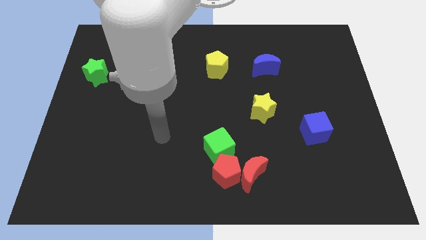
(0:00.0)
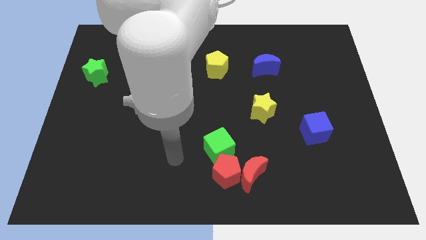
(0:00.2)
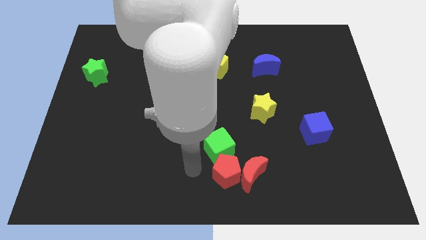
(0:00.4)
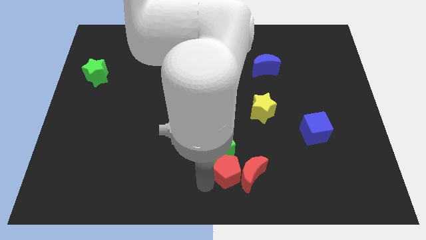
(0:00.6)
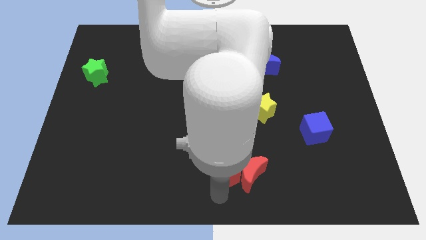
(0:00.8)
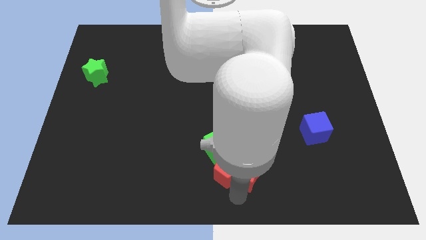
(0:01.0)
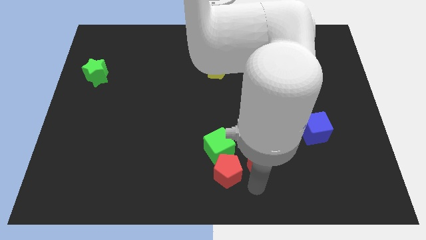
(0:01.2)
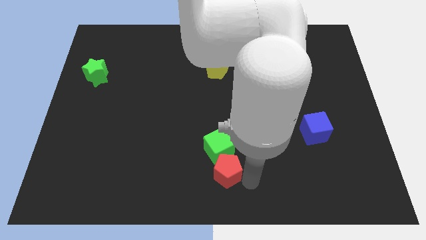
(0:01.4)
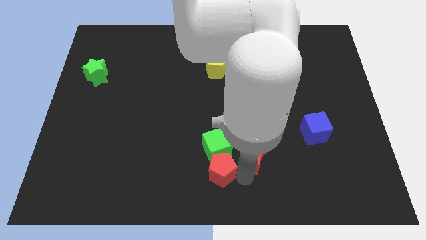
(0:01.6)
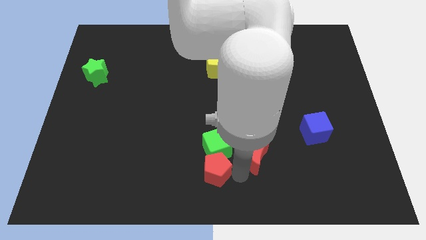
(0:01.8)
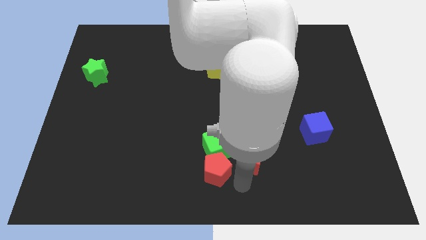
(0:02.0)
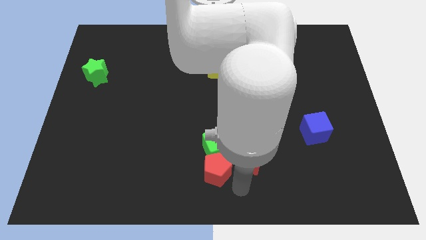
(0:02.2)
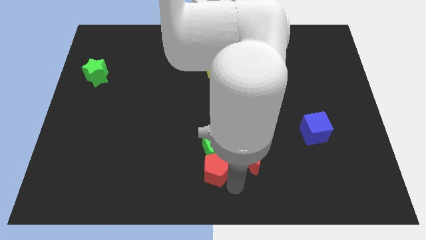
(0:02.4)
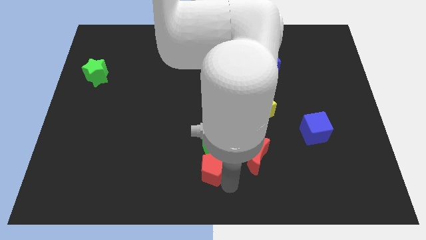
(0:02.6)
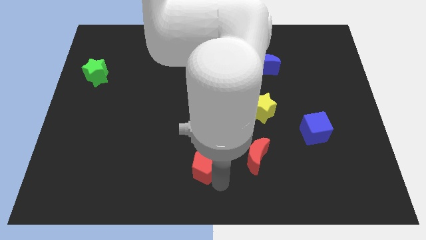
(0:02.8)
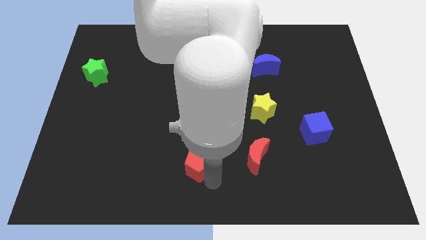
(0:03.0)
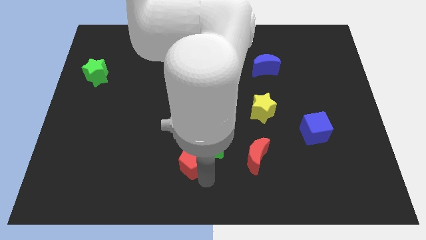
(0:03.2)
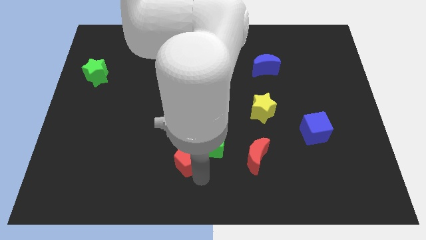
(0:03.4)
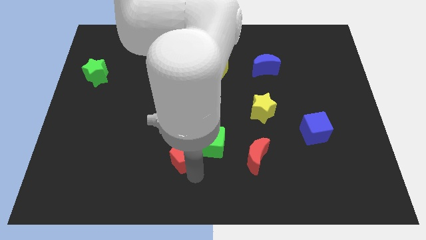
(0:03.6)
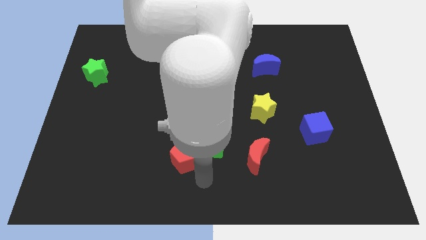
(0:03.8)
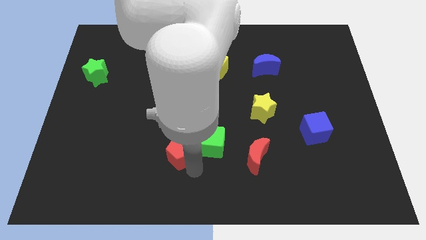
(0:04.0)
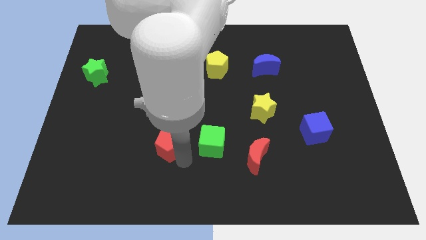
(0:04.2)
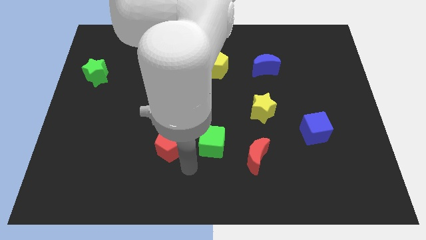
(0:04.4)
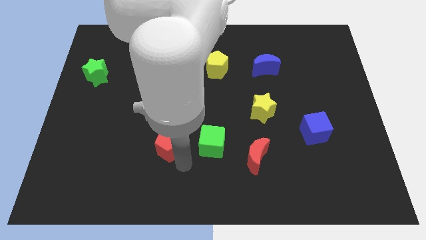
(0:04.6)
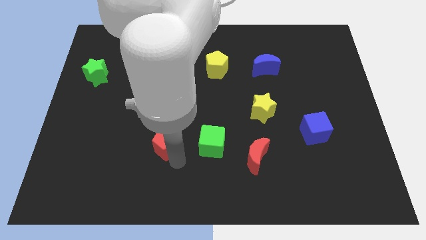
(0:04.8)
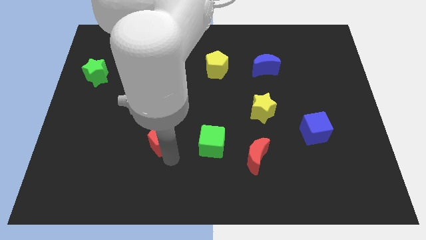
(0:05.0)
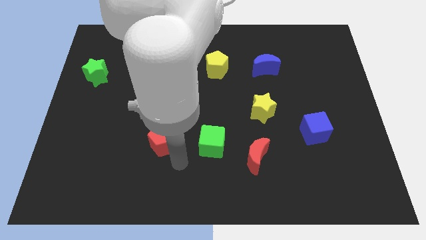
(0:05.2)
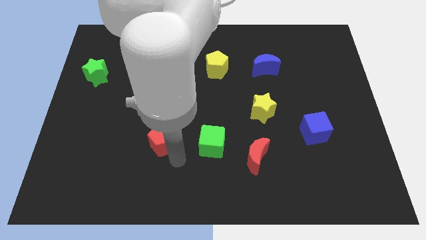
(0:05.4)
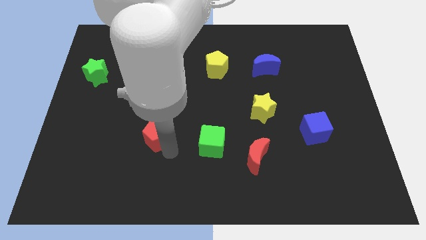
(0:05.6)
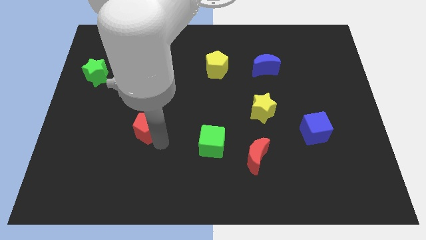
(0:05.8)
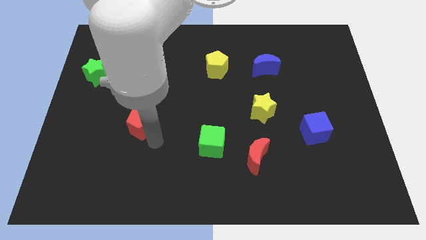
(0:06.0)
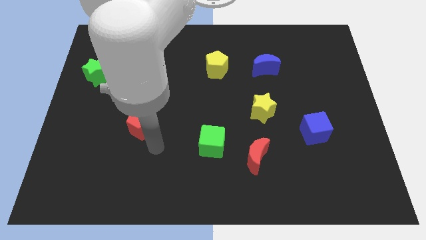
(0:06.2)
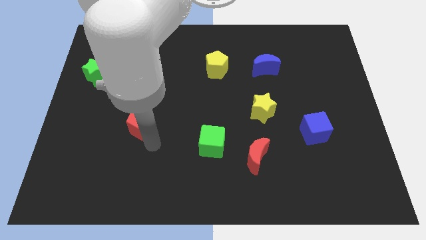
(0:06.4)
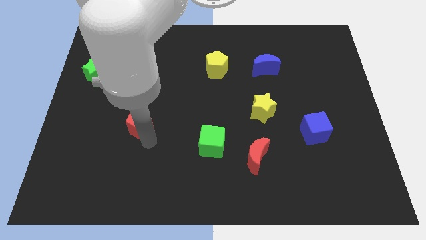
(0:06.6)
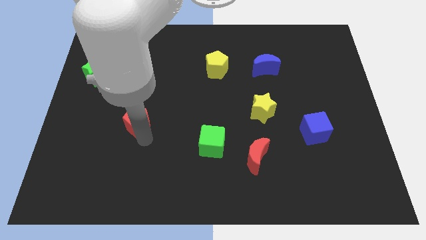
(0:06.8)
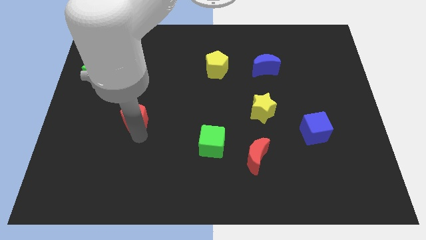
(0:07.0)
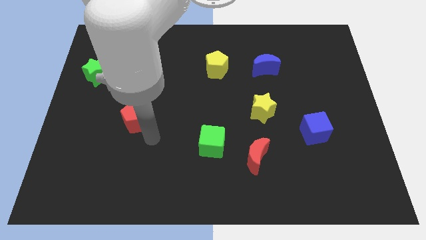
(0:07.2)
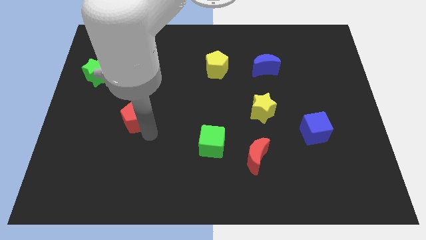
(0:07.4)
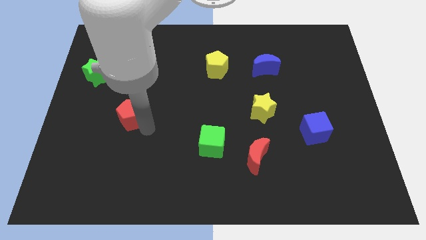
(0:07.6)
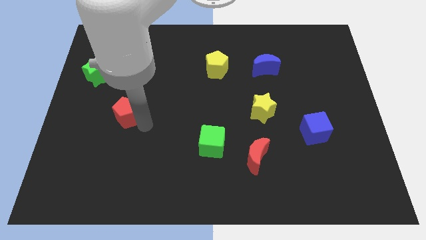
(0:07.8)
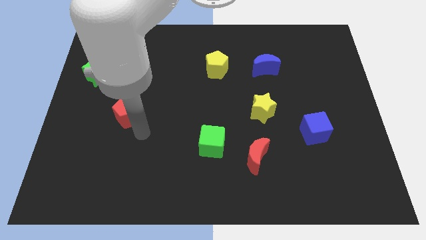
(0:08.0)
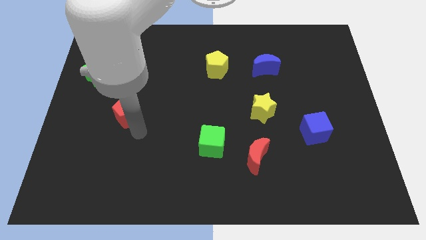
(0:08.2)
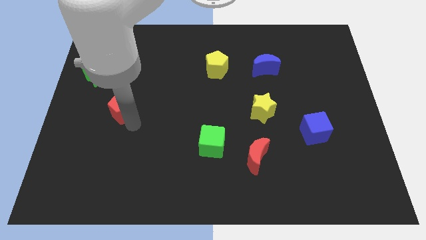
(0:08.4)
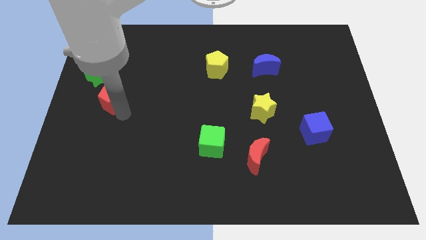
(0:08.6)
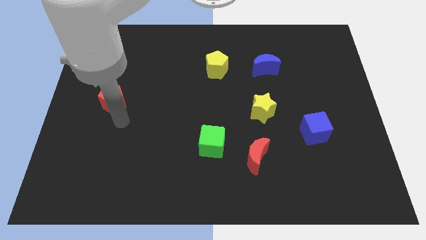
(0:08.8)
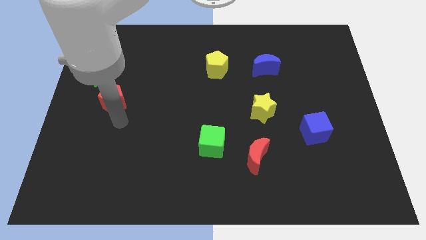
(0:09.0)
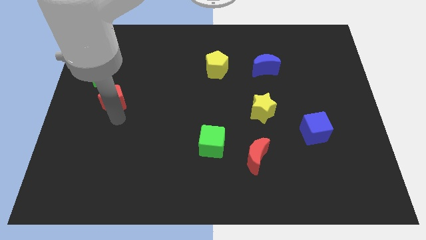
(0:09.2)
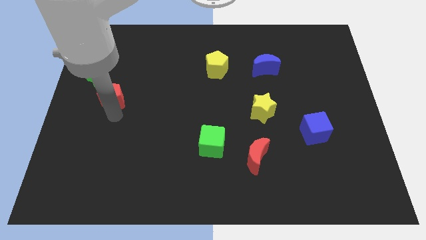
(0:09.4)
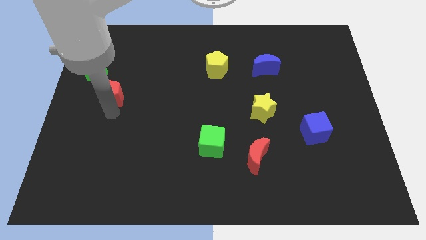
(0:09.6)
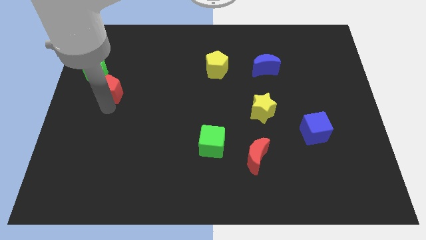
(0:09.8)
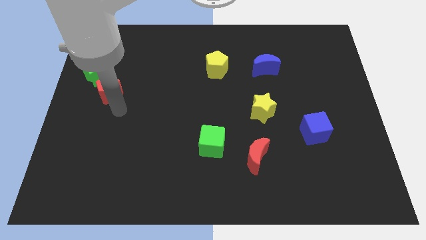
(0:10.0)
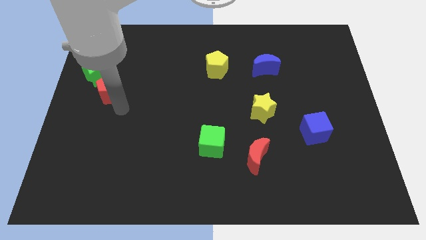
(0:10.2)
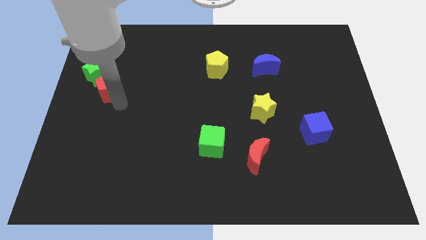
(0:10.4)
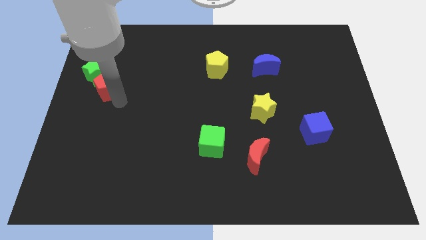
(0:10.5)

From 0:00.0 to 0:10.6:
push the red pentagon next to the green star

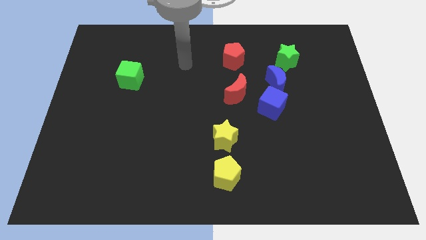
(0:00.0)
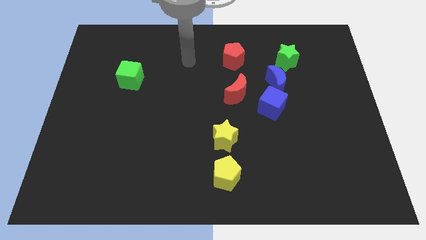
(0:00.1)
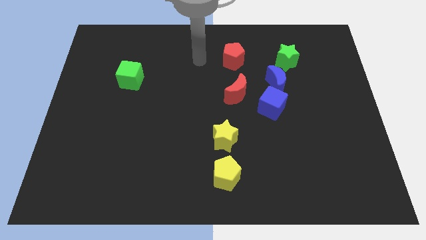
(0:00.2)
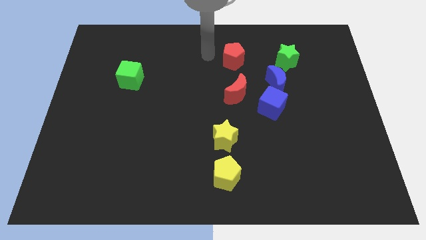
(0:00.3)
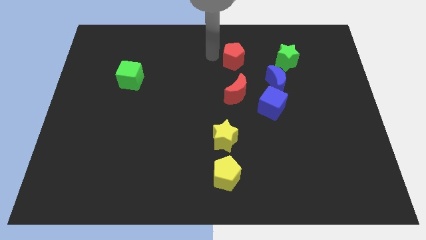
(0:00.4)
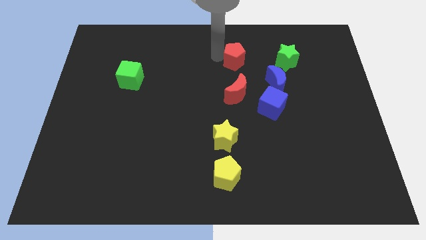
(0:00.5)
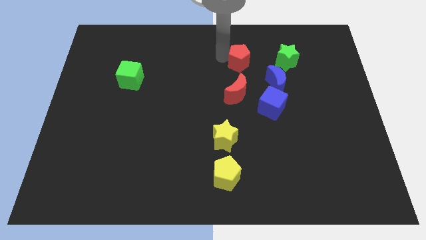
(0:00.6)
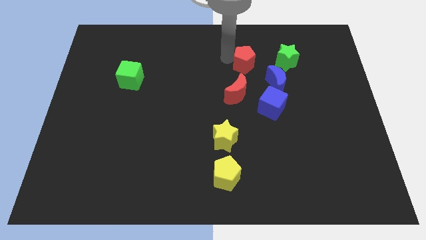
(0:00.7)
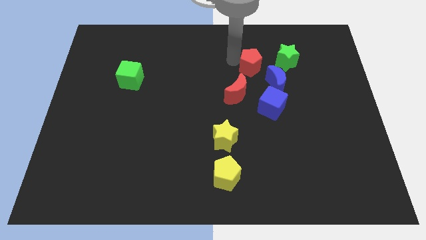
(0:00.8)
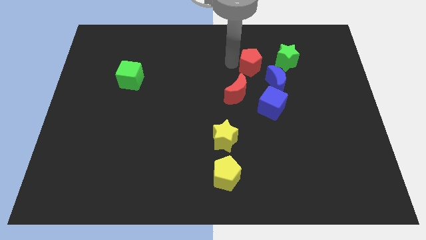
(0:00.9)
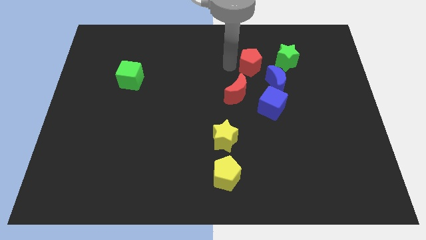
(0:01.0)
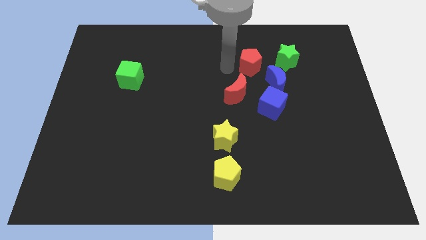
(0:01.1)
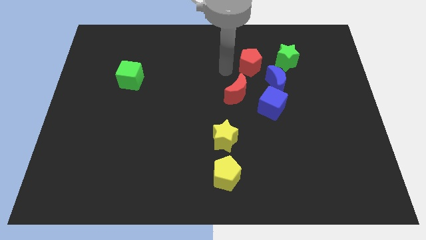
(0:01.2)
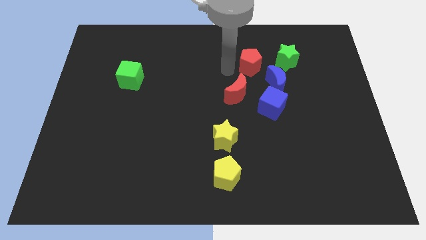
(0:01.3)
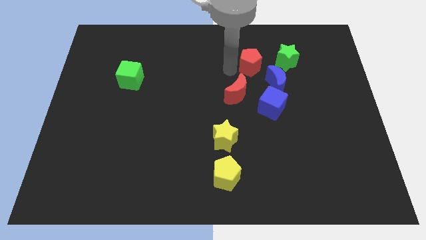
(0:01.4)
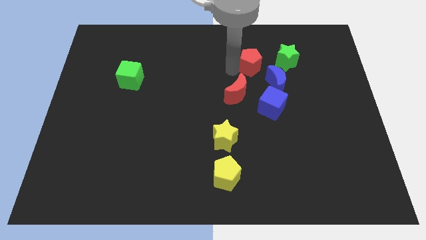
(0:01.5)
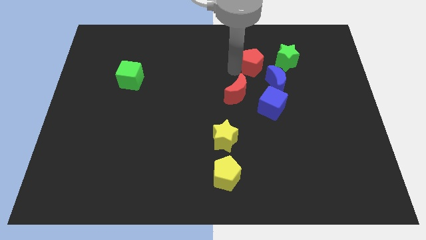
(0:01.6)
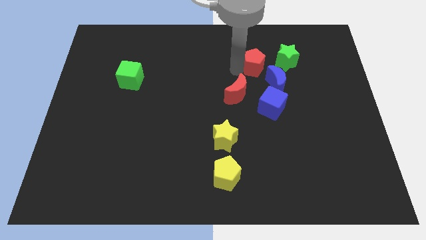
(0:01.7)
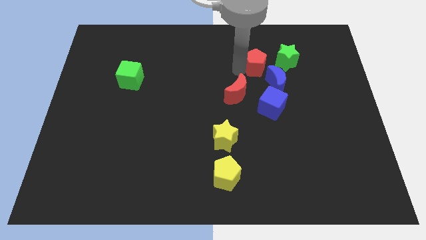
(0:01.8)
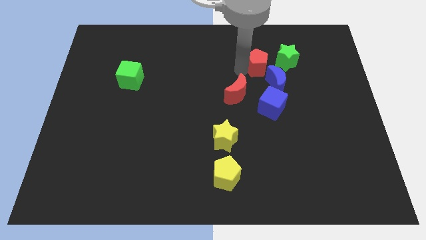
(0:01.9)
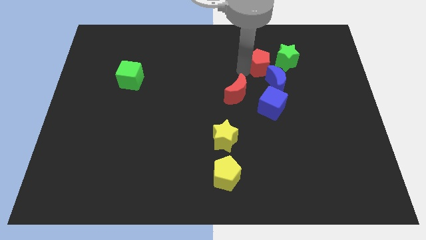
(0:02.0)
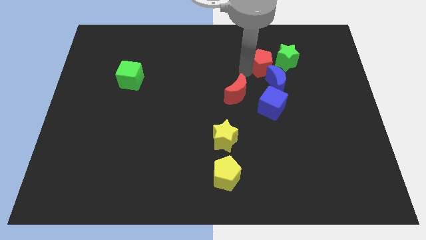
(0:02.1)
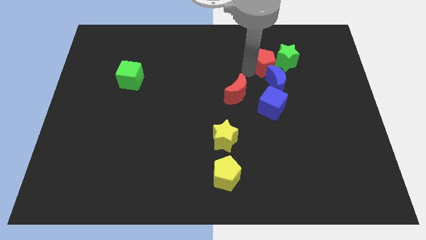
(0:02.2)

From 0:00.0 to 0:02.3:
slide the red pentagon to the green star
